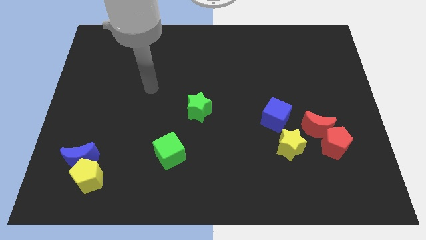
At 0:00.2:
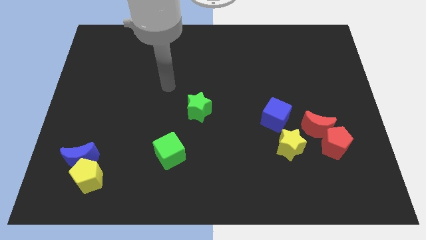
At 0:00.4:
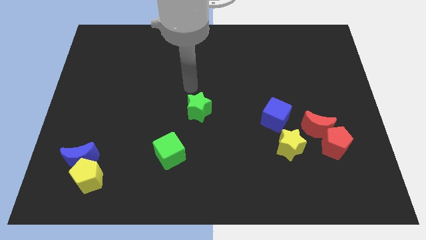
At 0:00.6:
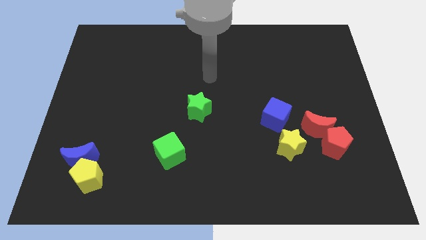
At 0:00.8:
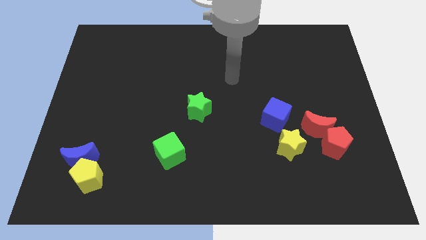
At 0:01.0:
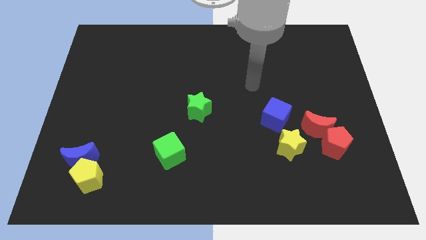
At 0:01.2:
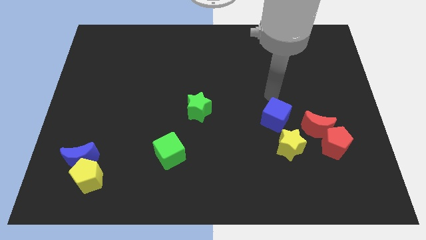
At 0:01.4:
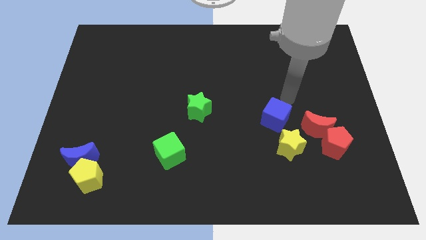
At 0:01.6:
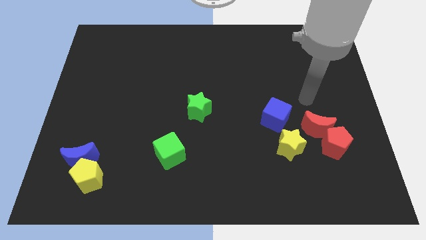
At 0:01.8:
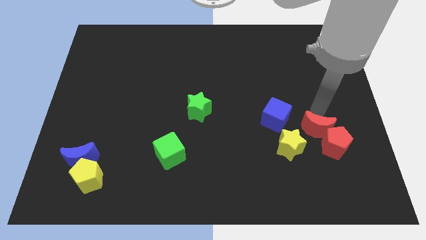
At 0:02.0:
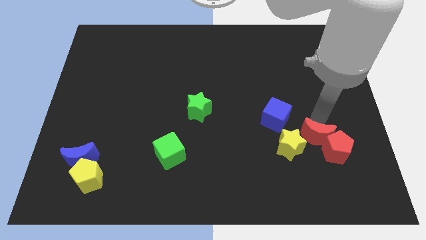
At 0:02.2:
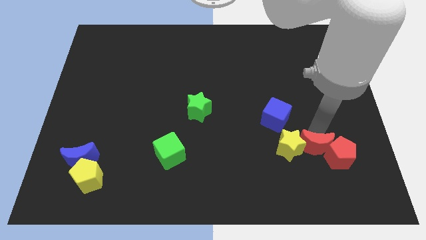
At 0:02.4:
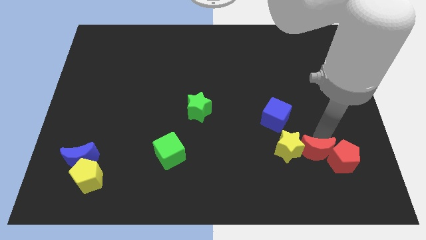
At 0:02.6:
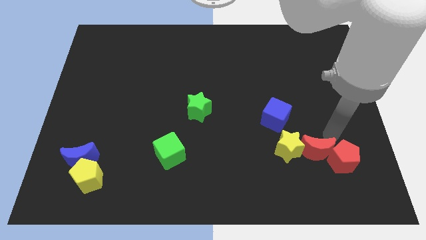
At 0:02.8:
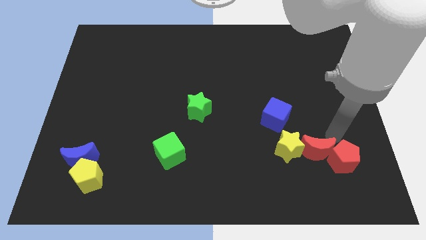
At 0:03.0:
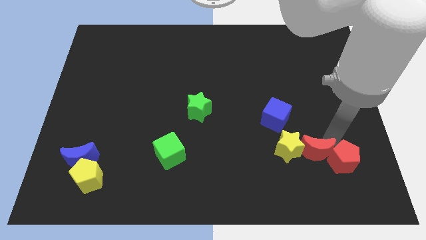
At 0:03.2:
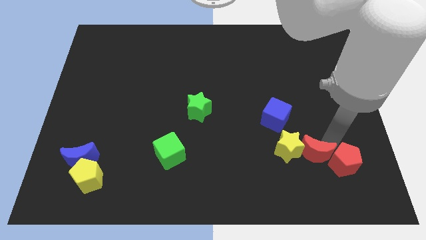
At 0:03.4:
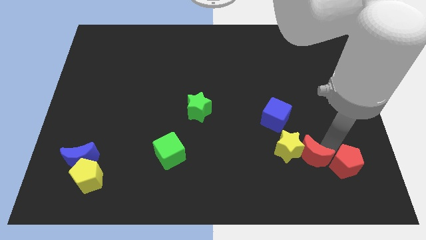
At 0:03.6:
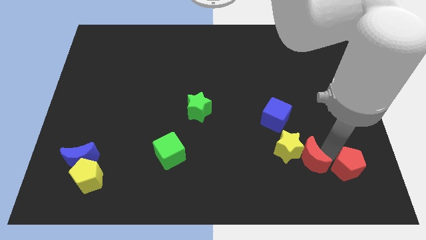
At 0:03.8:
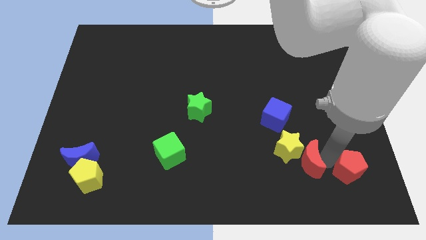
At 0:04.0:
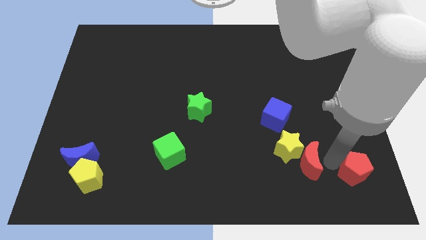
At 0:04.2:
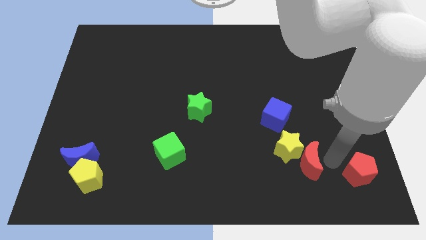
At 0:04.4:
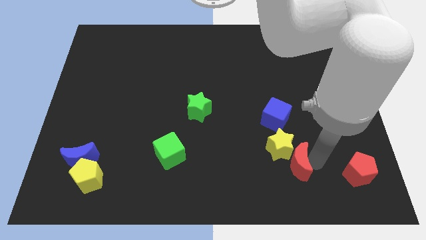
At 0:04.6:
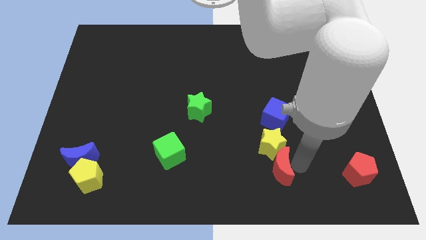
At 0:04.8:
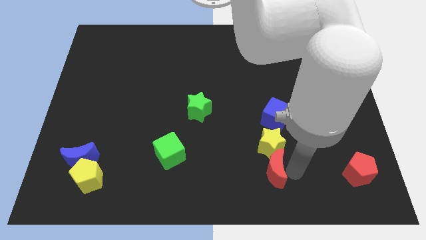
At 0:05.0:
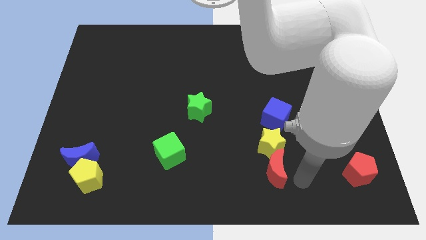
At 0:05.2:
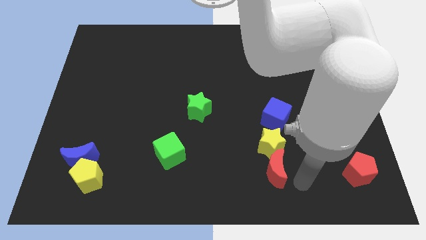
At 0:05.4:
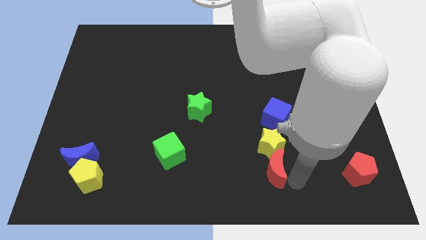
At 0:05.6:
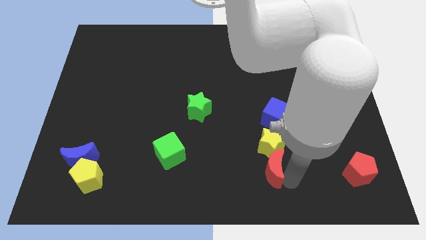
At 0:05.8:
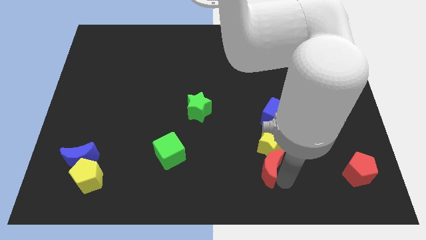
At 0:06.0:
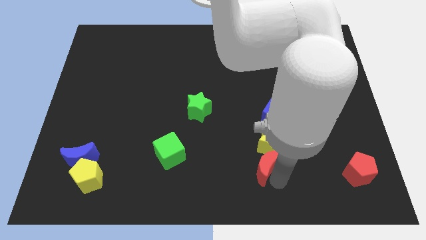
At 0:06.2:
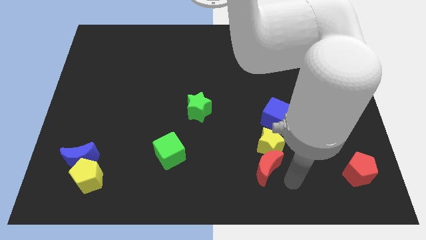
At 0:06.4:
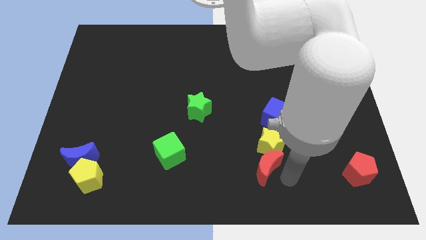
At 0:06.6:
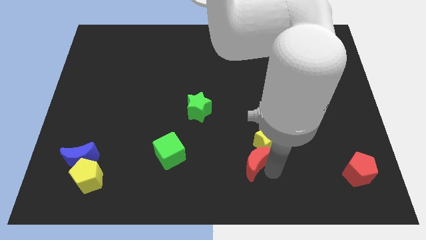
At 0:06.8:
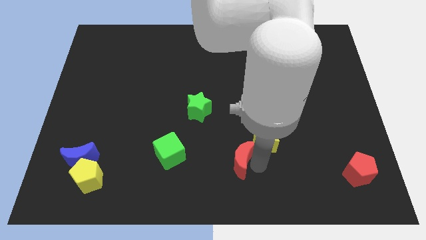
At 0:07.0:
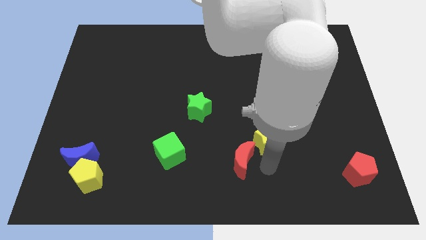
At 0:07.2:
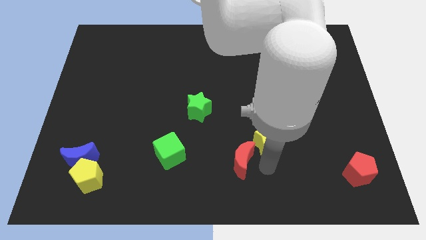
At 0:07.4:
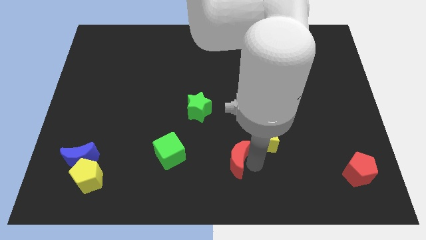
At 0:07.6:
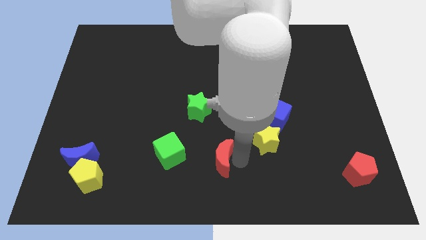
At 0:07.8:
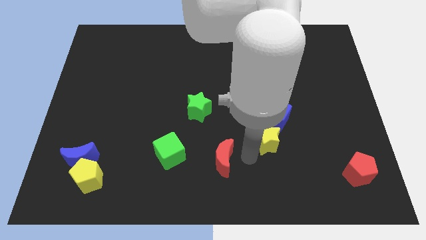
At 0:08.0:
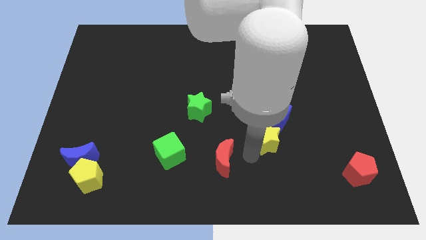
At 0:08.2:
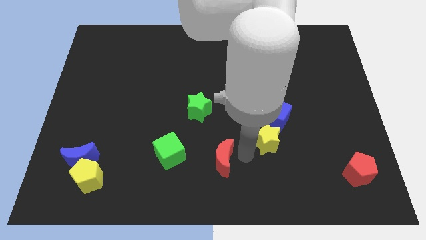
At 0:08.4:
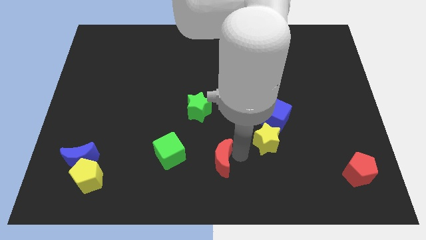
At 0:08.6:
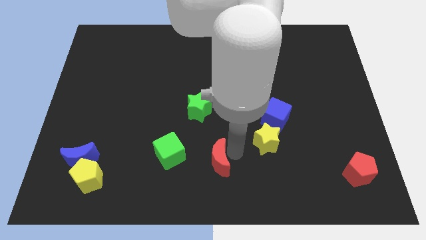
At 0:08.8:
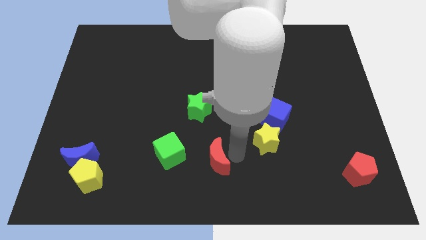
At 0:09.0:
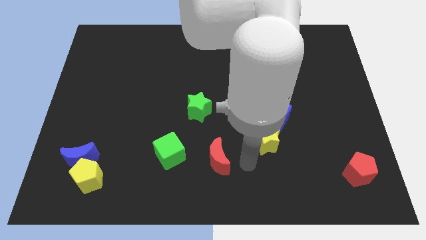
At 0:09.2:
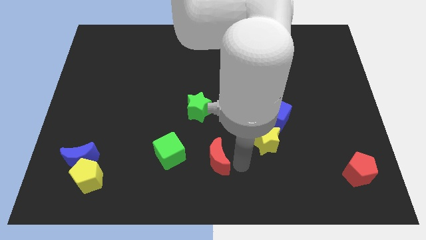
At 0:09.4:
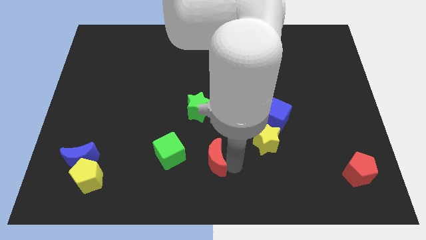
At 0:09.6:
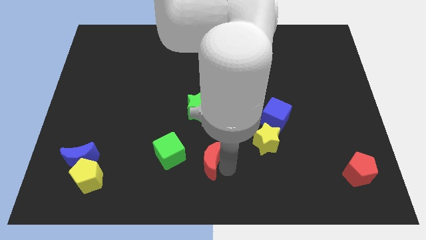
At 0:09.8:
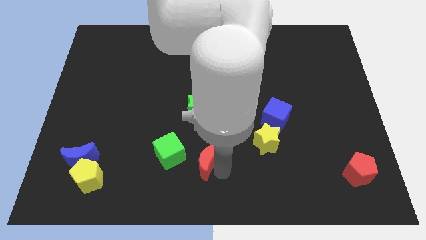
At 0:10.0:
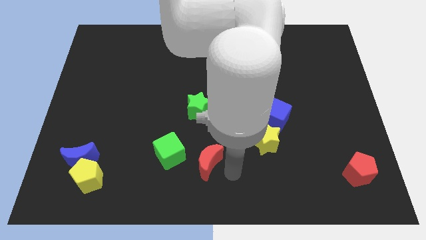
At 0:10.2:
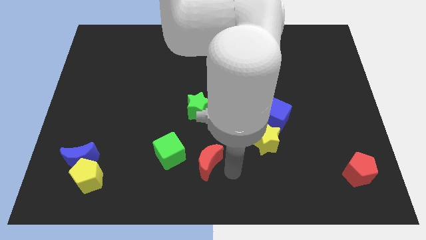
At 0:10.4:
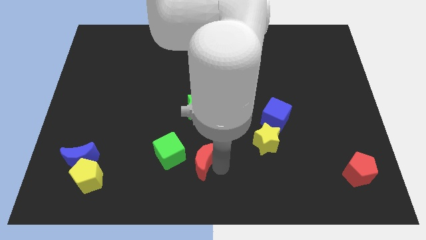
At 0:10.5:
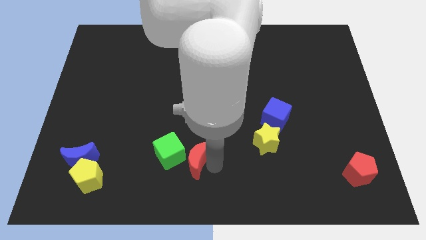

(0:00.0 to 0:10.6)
put the red moon towards the green cube

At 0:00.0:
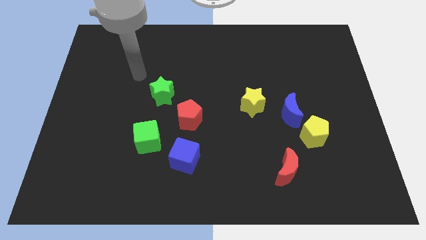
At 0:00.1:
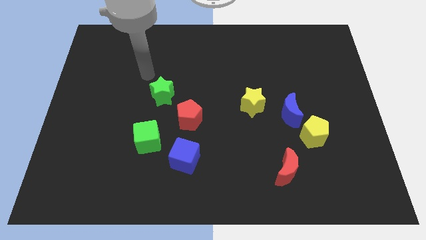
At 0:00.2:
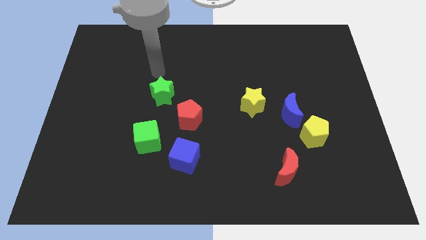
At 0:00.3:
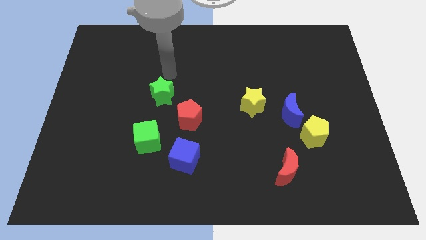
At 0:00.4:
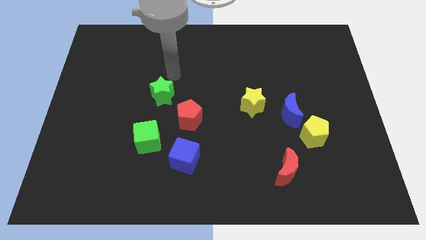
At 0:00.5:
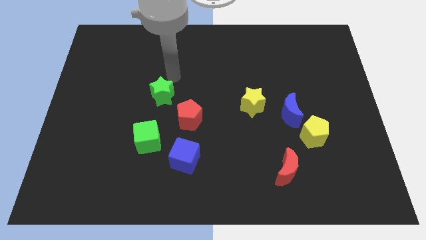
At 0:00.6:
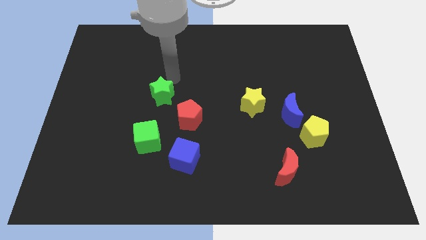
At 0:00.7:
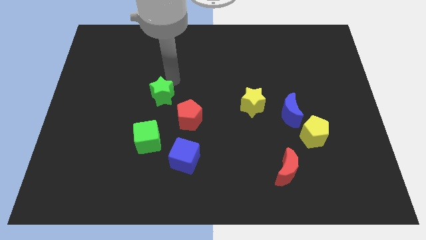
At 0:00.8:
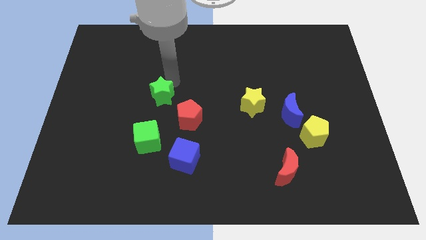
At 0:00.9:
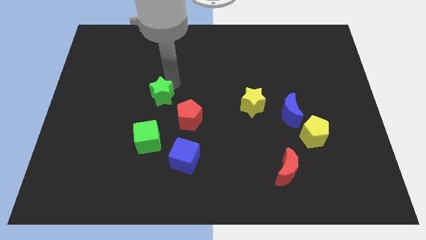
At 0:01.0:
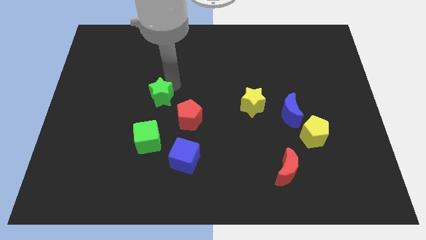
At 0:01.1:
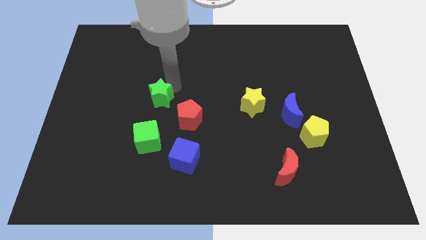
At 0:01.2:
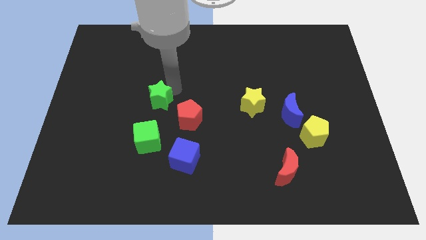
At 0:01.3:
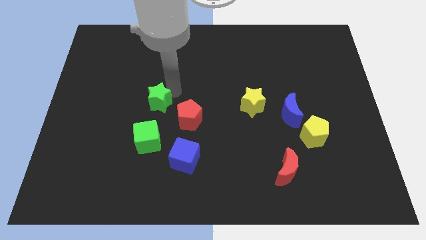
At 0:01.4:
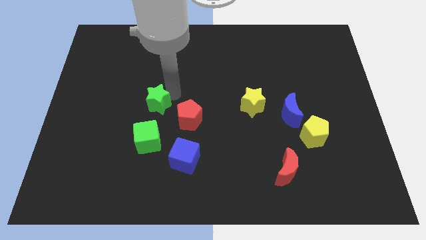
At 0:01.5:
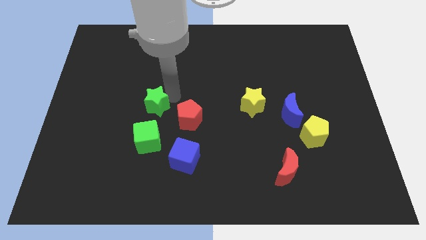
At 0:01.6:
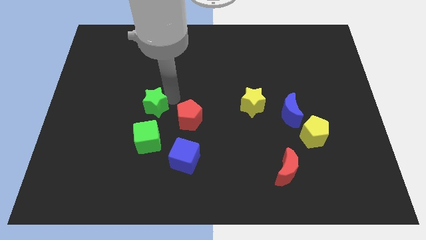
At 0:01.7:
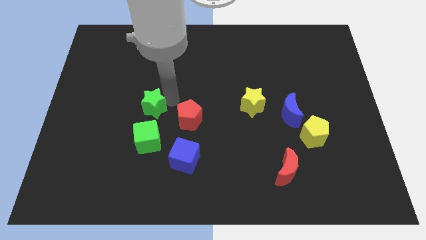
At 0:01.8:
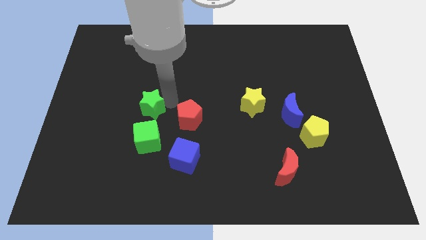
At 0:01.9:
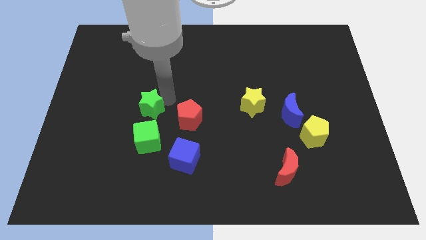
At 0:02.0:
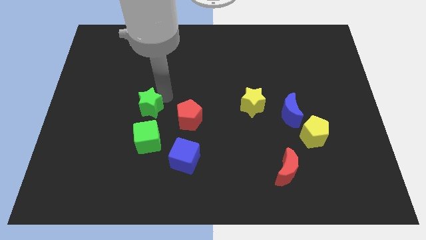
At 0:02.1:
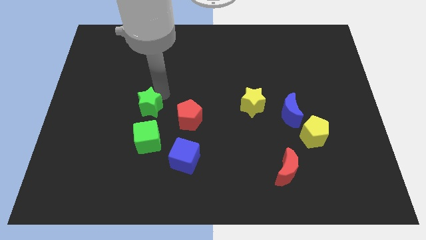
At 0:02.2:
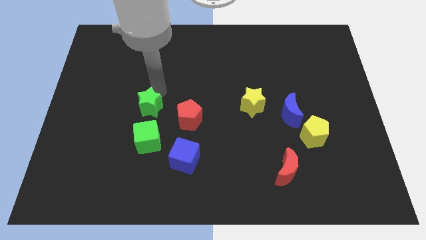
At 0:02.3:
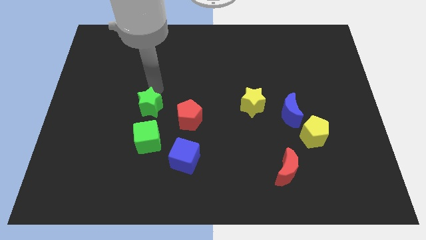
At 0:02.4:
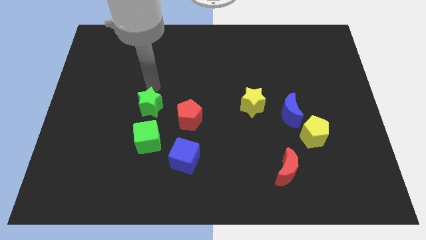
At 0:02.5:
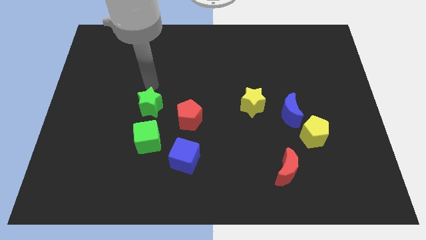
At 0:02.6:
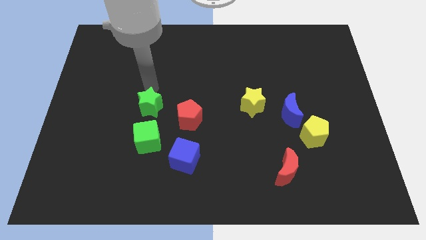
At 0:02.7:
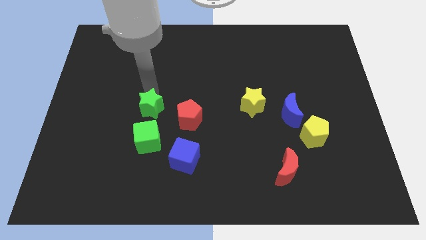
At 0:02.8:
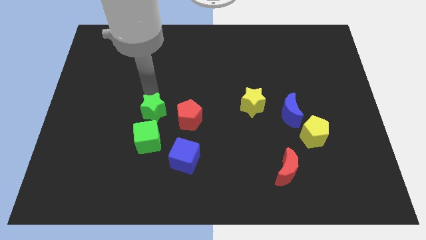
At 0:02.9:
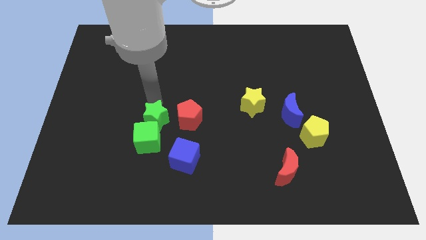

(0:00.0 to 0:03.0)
put the green star next to the green cube
